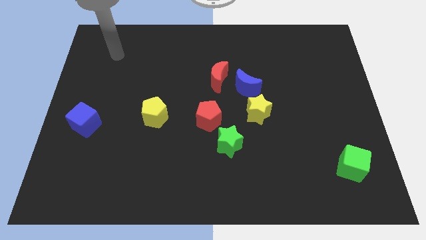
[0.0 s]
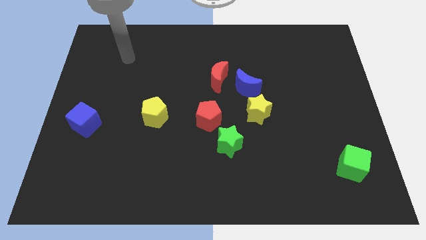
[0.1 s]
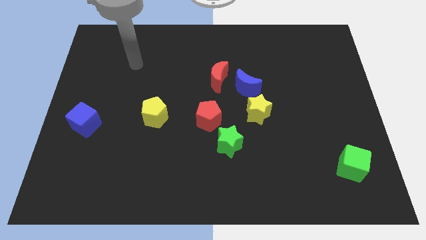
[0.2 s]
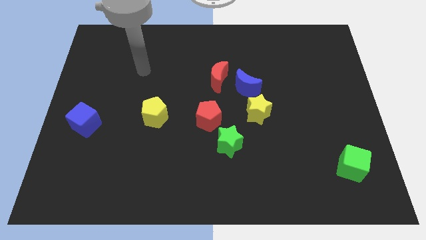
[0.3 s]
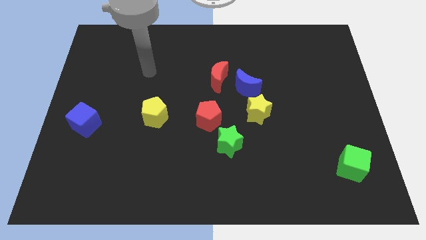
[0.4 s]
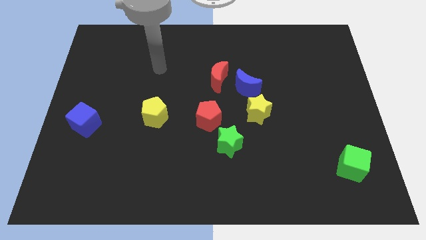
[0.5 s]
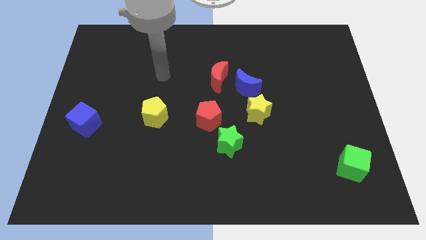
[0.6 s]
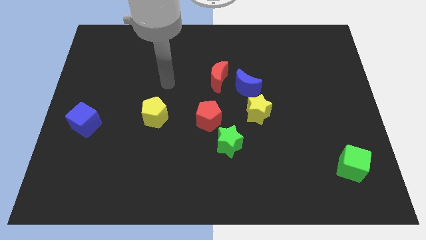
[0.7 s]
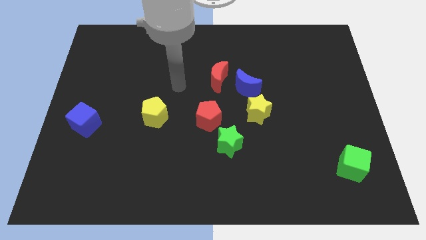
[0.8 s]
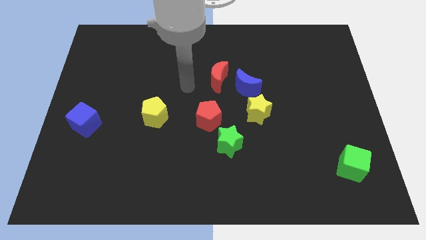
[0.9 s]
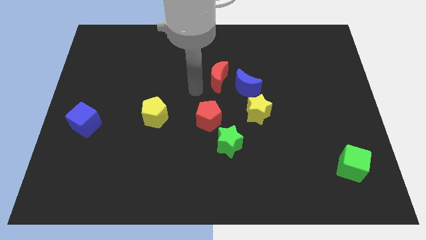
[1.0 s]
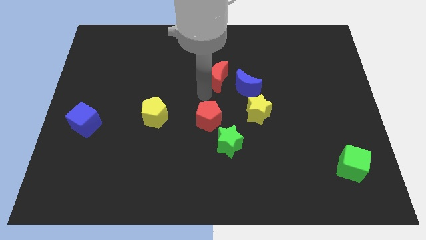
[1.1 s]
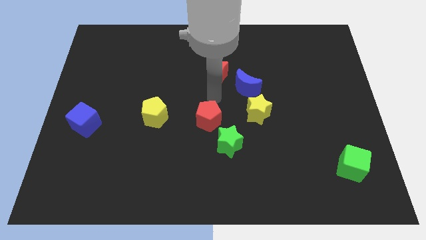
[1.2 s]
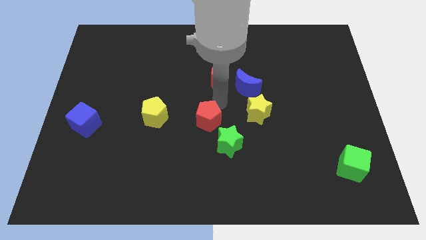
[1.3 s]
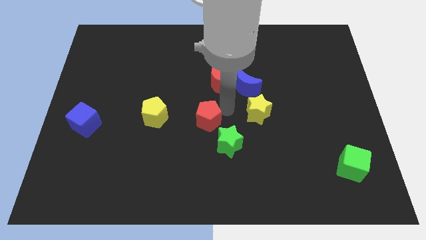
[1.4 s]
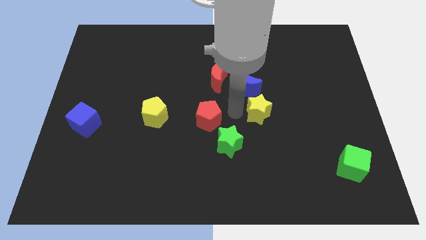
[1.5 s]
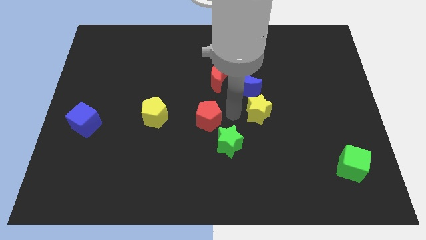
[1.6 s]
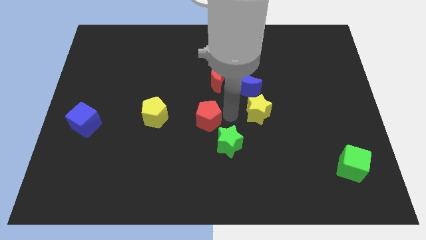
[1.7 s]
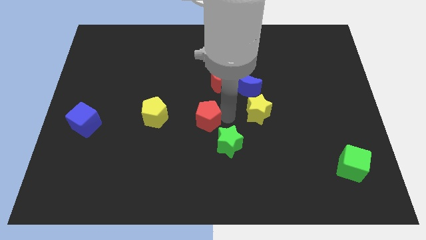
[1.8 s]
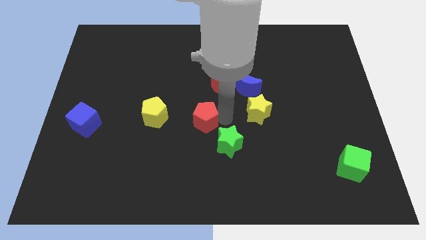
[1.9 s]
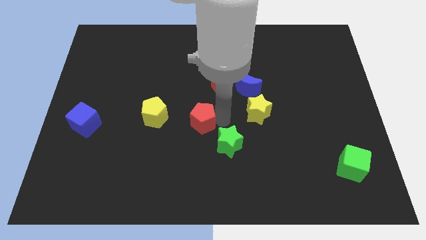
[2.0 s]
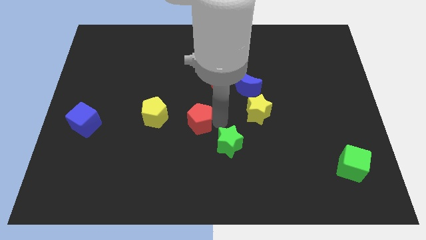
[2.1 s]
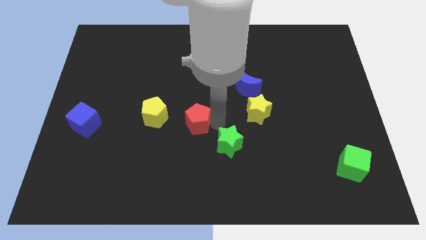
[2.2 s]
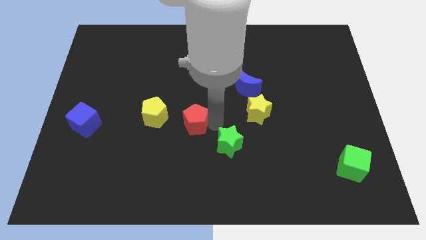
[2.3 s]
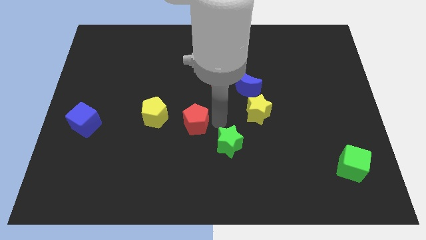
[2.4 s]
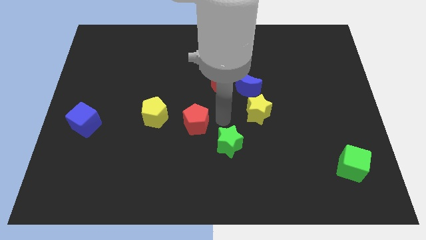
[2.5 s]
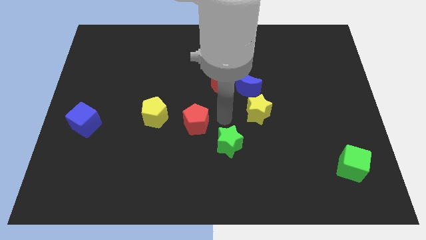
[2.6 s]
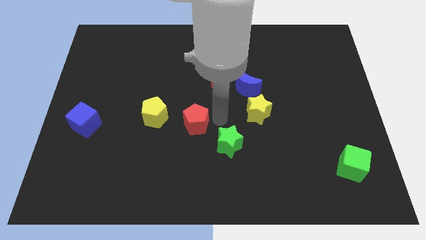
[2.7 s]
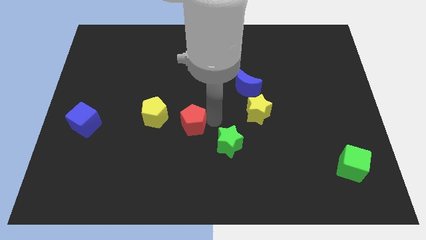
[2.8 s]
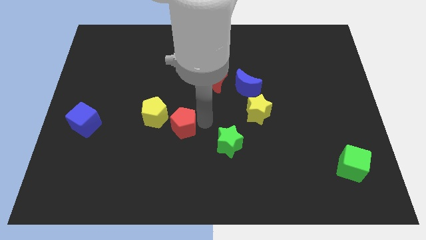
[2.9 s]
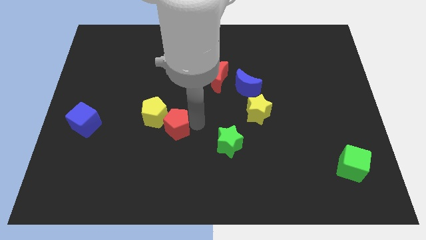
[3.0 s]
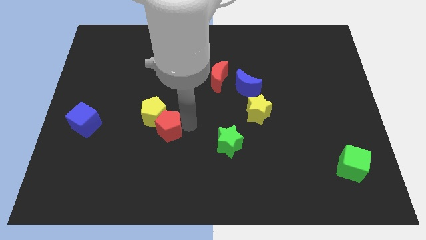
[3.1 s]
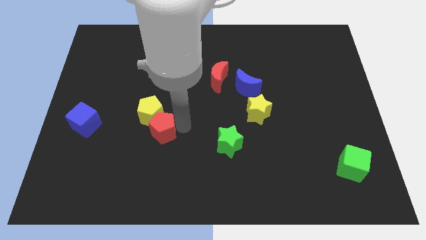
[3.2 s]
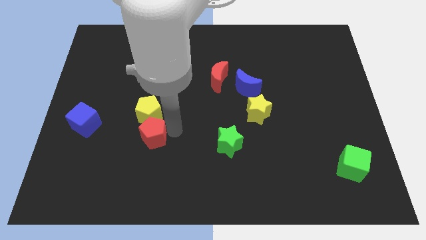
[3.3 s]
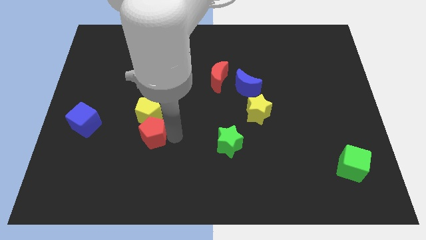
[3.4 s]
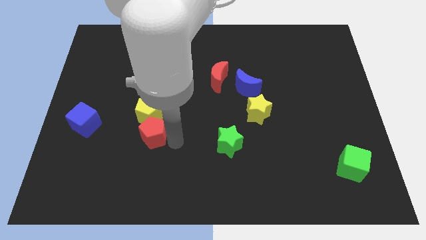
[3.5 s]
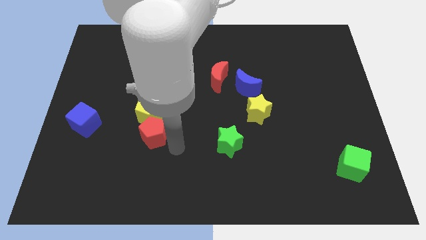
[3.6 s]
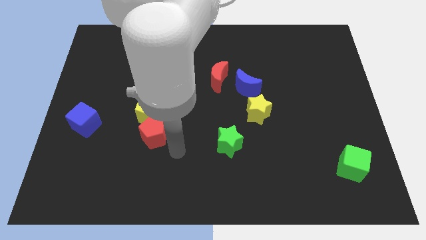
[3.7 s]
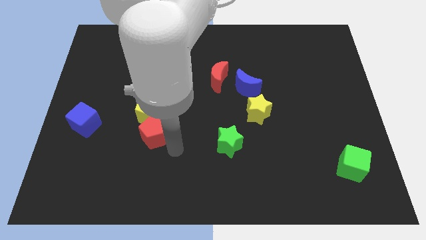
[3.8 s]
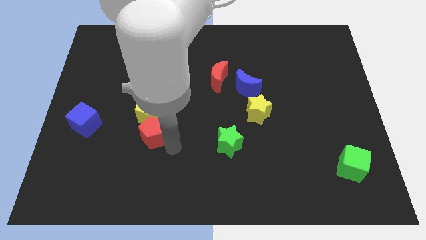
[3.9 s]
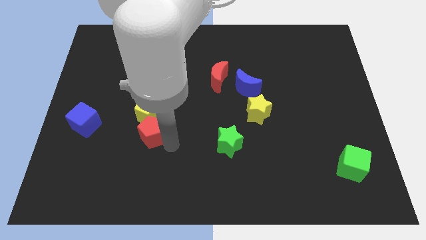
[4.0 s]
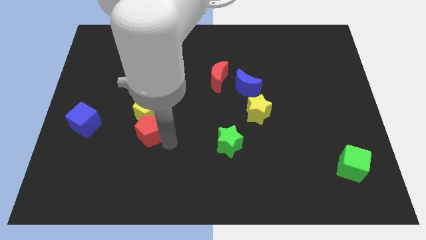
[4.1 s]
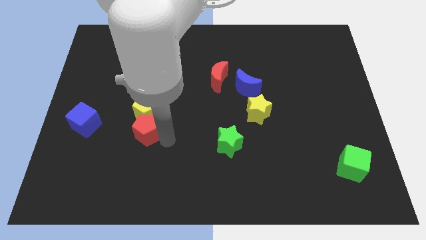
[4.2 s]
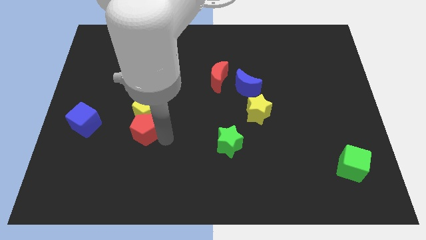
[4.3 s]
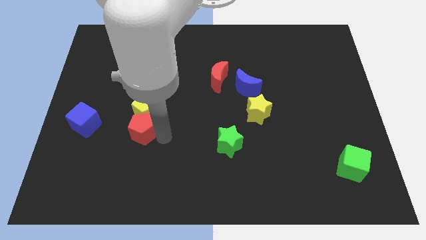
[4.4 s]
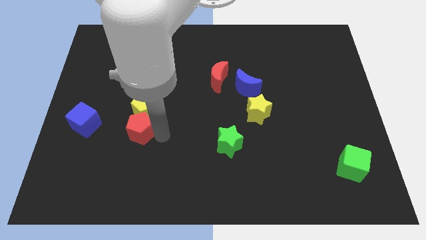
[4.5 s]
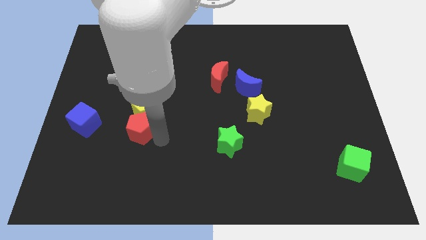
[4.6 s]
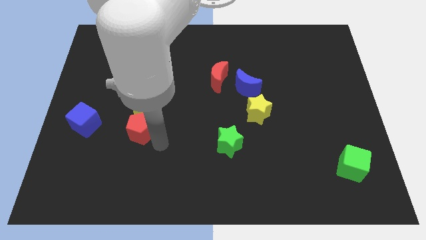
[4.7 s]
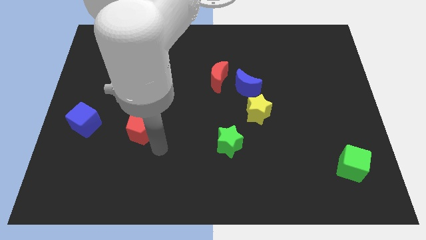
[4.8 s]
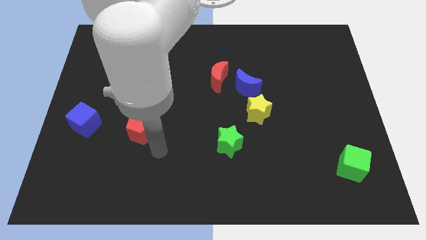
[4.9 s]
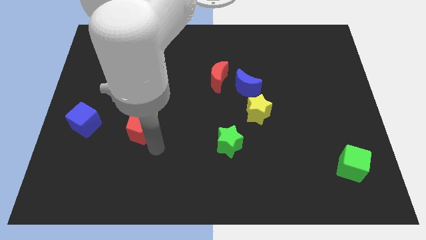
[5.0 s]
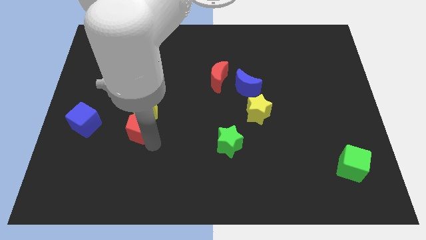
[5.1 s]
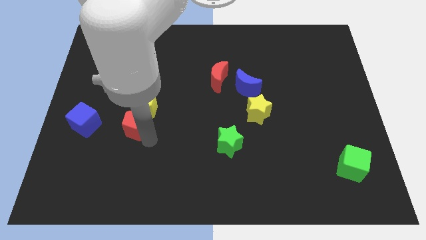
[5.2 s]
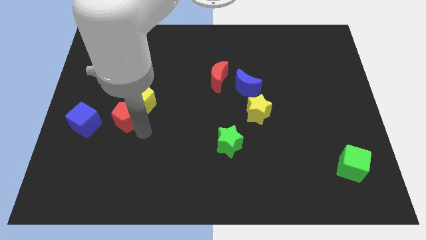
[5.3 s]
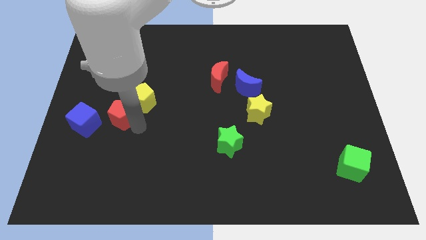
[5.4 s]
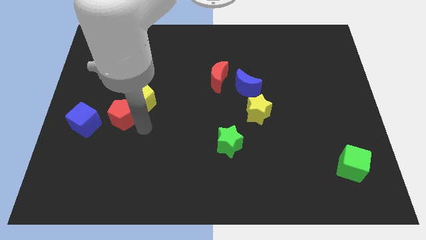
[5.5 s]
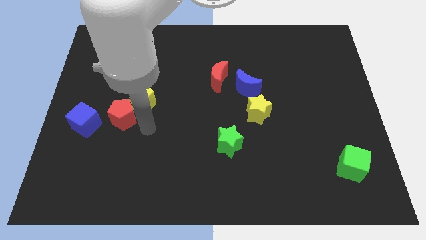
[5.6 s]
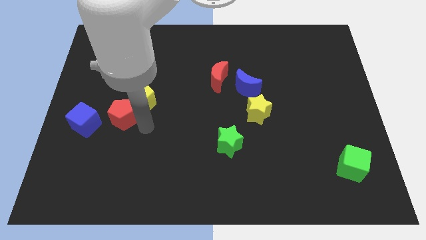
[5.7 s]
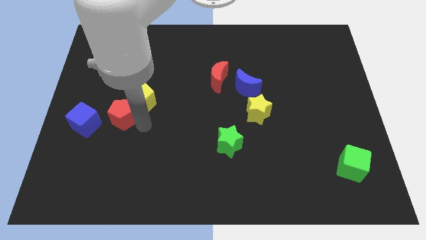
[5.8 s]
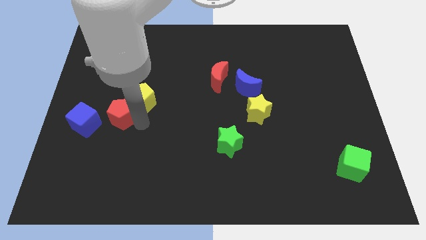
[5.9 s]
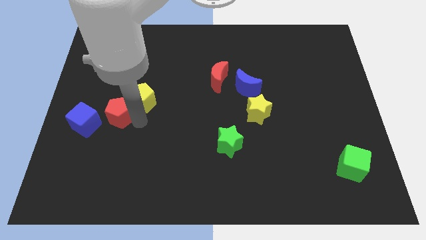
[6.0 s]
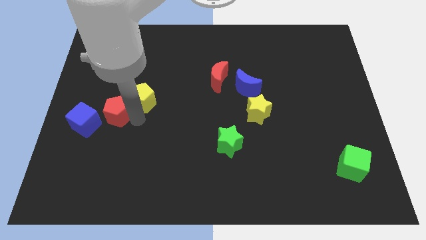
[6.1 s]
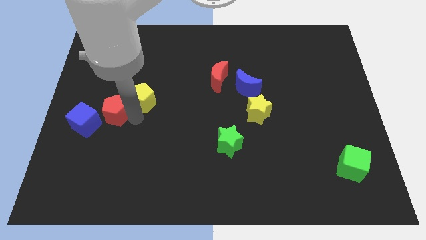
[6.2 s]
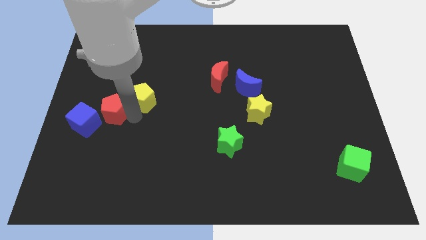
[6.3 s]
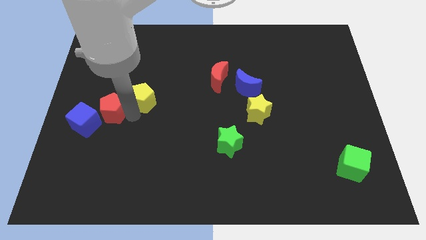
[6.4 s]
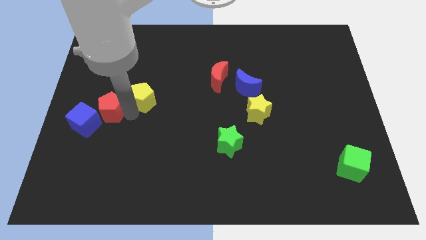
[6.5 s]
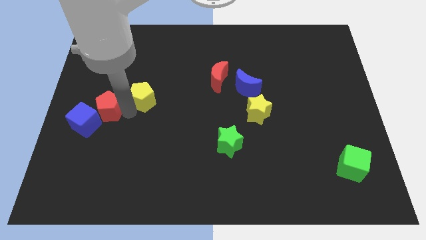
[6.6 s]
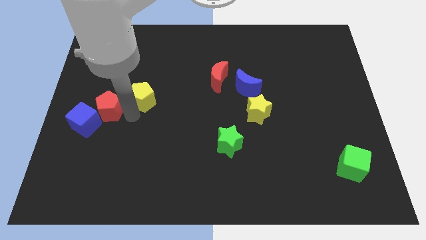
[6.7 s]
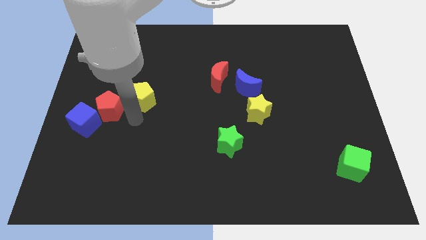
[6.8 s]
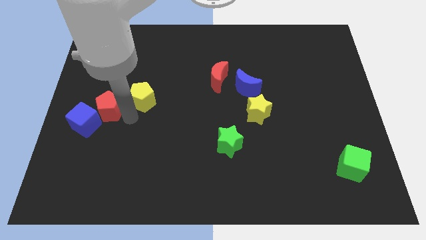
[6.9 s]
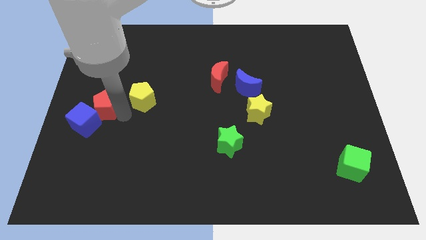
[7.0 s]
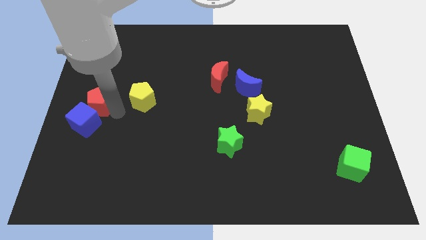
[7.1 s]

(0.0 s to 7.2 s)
push the red pentagon to the left side of the board
